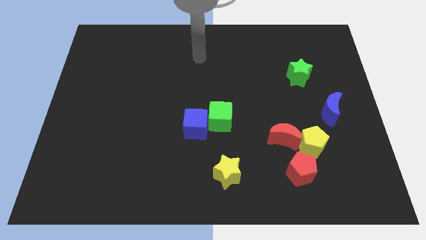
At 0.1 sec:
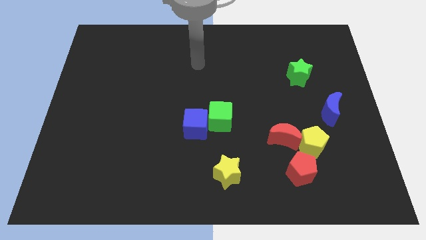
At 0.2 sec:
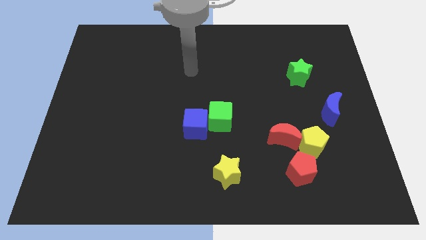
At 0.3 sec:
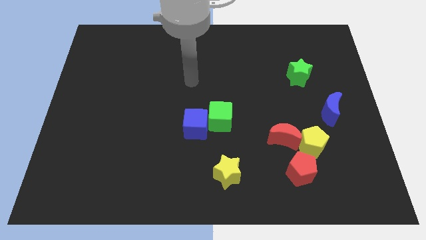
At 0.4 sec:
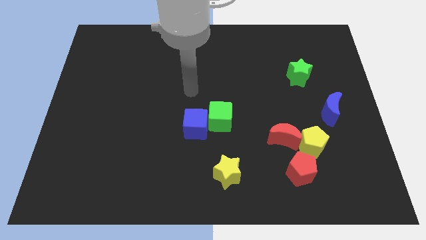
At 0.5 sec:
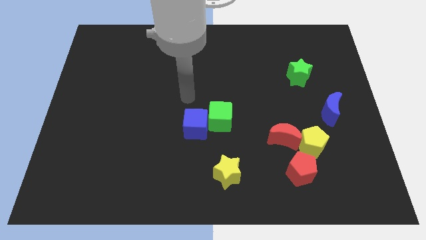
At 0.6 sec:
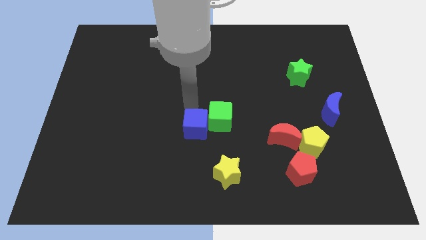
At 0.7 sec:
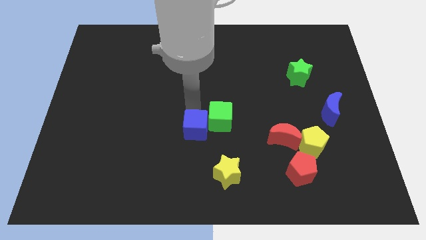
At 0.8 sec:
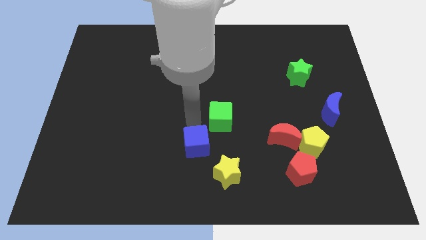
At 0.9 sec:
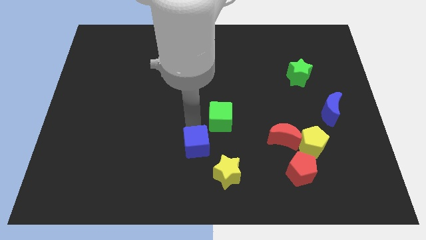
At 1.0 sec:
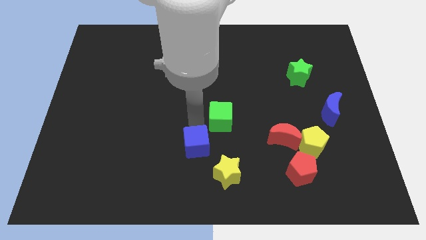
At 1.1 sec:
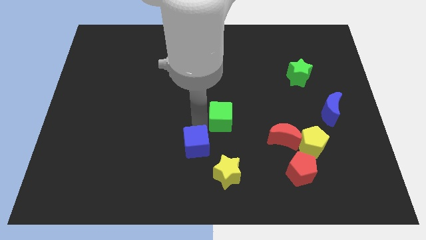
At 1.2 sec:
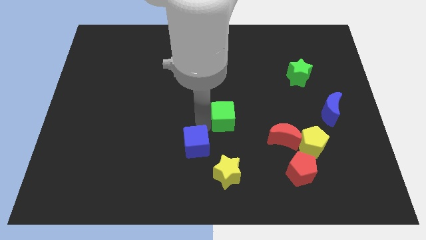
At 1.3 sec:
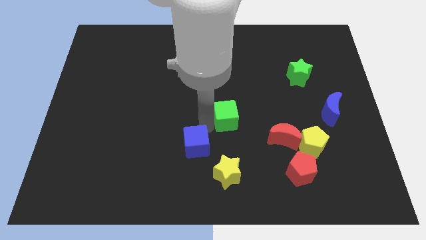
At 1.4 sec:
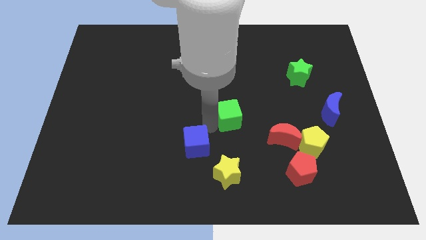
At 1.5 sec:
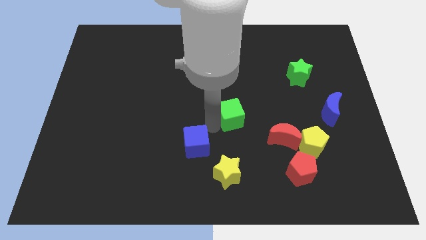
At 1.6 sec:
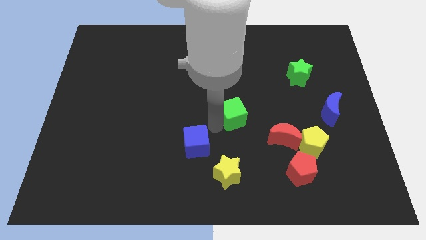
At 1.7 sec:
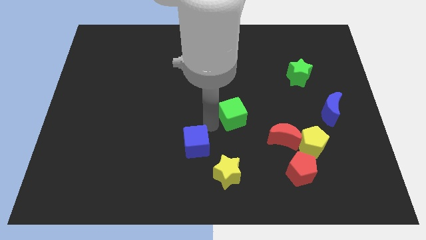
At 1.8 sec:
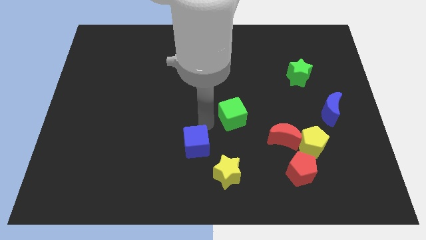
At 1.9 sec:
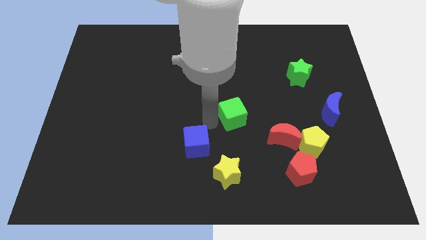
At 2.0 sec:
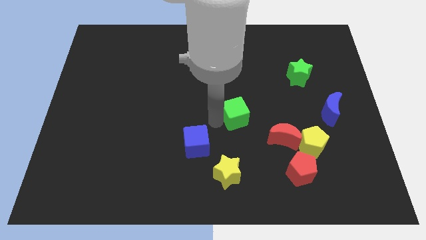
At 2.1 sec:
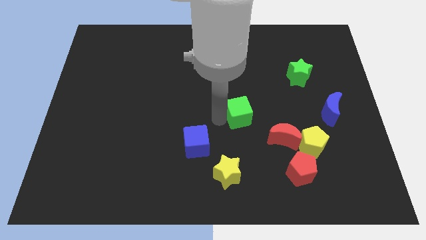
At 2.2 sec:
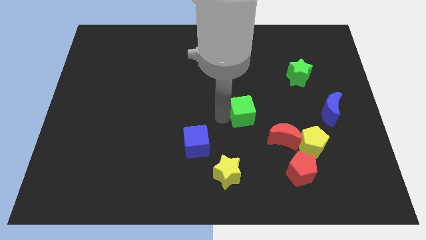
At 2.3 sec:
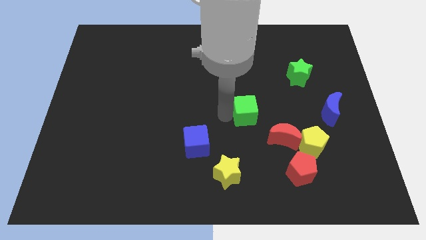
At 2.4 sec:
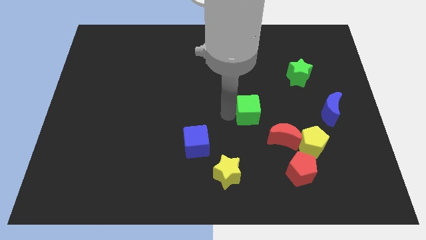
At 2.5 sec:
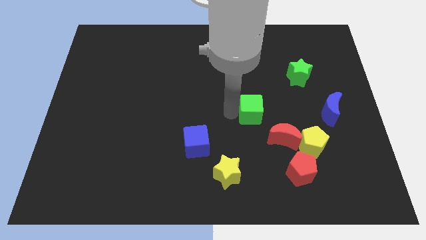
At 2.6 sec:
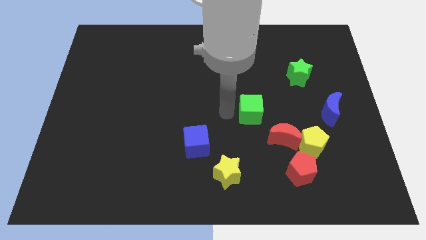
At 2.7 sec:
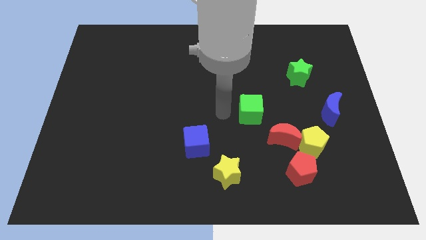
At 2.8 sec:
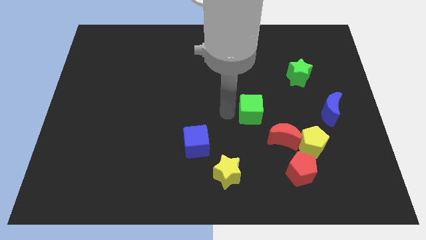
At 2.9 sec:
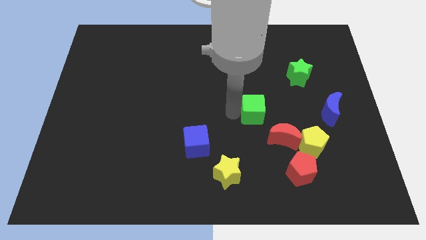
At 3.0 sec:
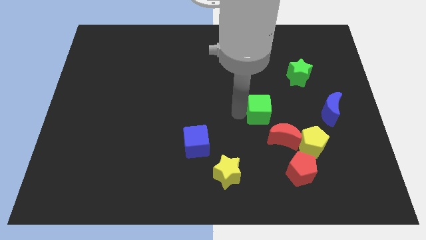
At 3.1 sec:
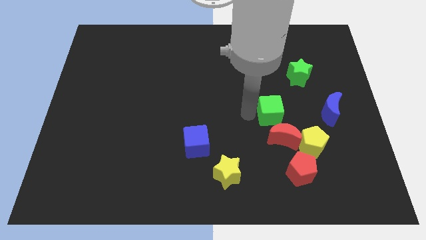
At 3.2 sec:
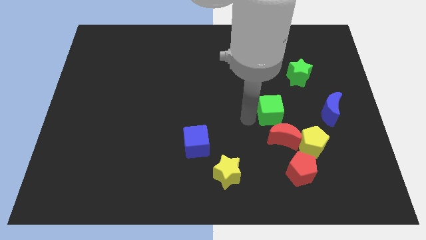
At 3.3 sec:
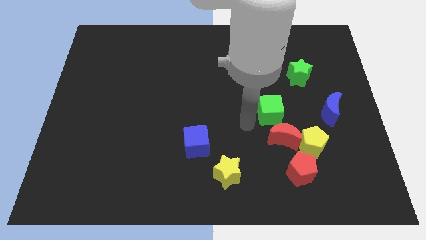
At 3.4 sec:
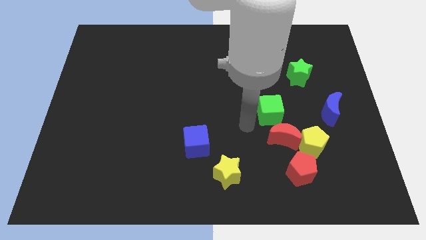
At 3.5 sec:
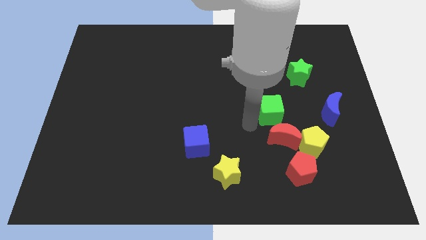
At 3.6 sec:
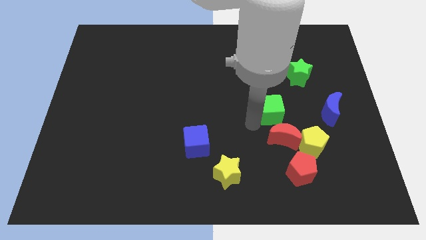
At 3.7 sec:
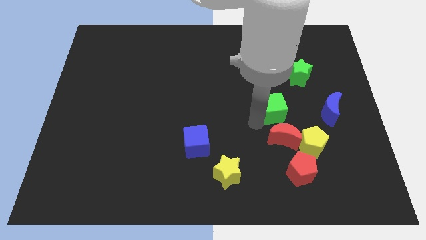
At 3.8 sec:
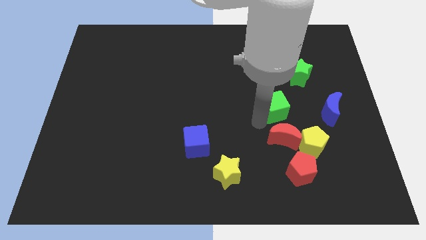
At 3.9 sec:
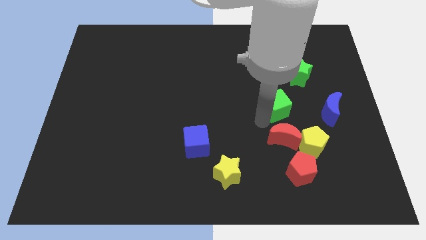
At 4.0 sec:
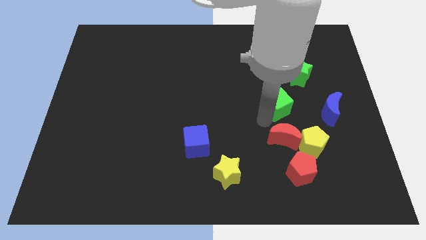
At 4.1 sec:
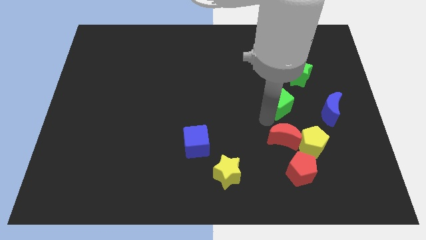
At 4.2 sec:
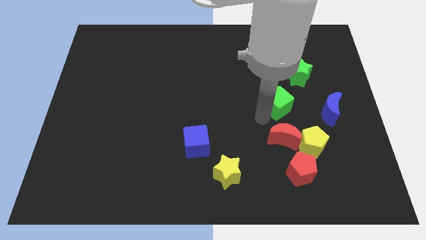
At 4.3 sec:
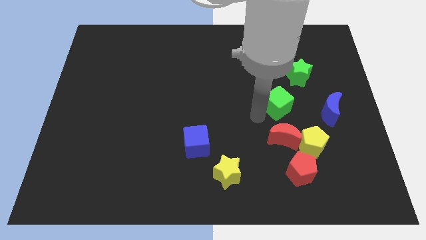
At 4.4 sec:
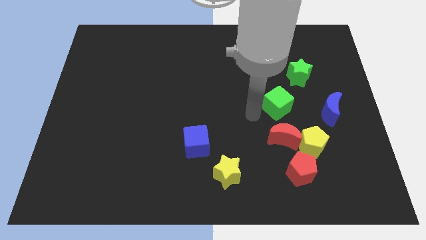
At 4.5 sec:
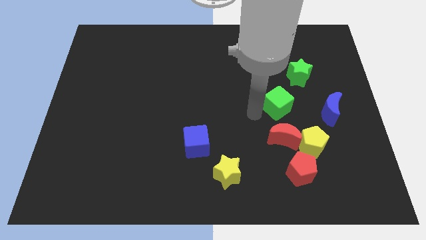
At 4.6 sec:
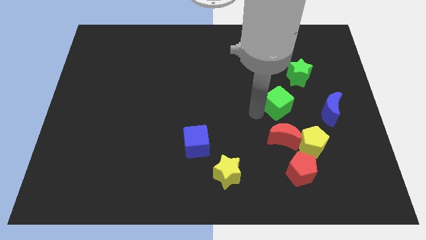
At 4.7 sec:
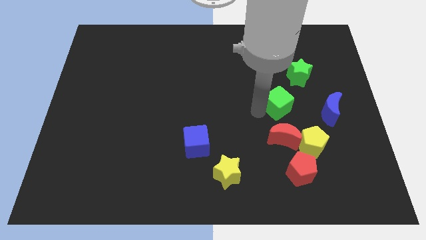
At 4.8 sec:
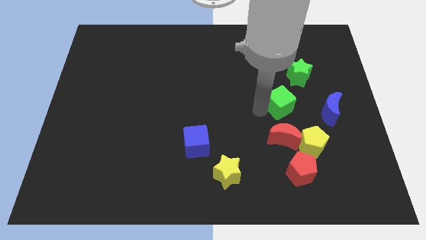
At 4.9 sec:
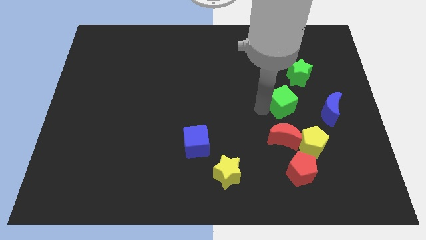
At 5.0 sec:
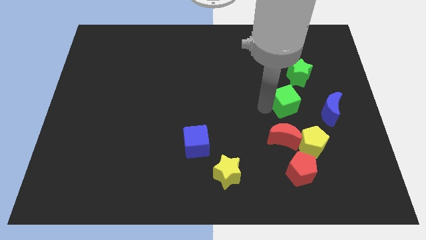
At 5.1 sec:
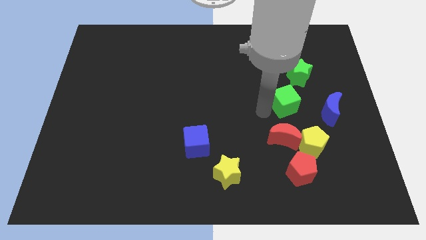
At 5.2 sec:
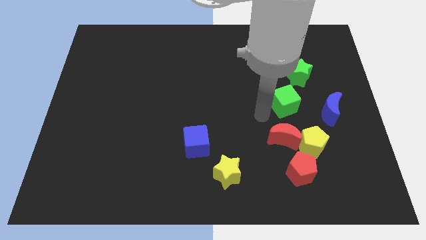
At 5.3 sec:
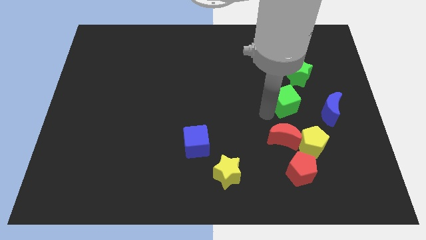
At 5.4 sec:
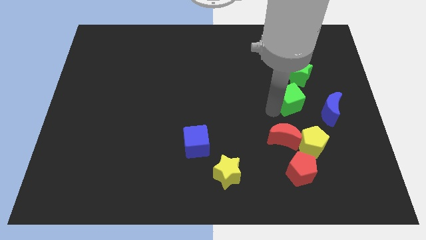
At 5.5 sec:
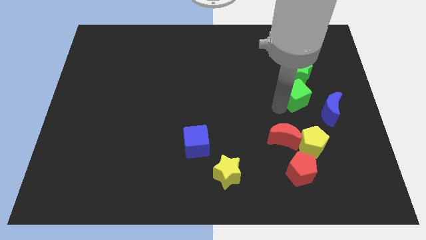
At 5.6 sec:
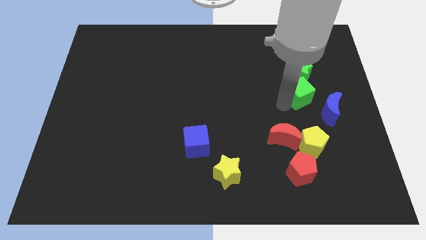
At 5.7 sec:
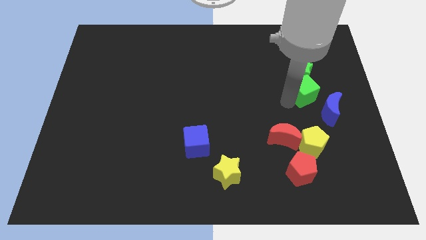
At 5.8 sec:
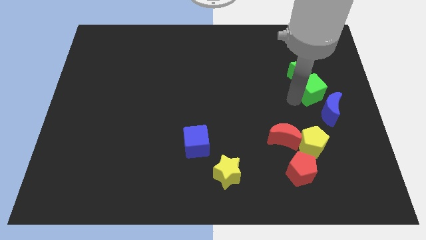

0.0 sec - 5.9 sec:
slide the green cube to the top of the blue moon
